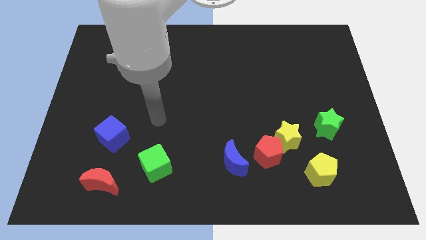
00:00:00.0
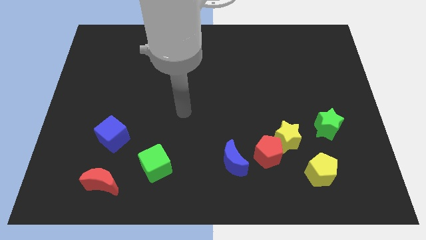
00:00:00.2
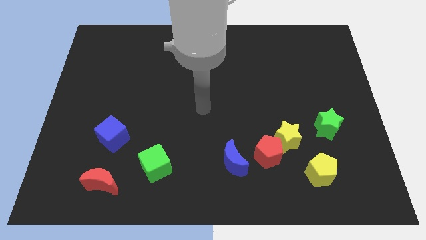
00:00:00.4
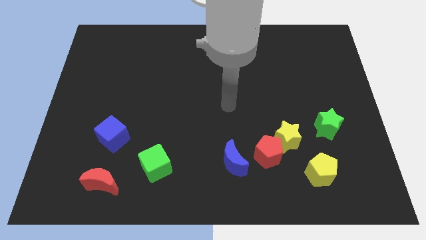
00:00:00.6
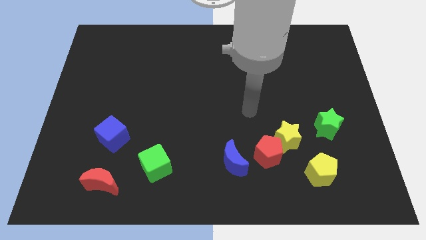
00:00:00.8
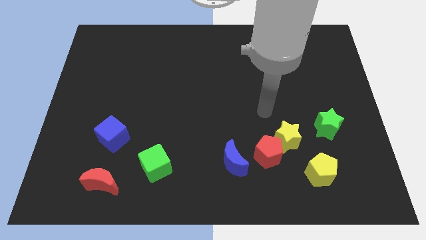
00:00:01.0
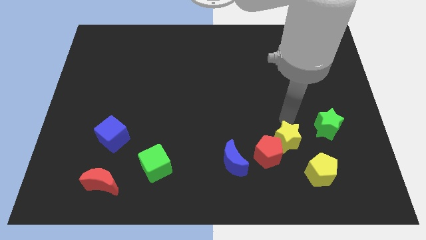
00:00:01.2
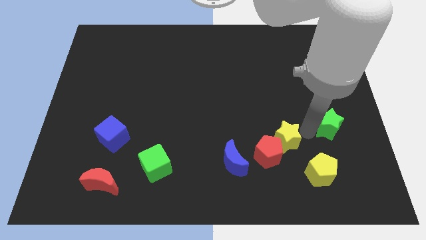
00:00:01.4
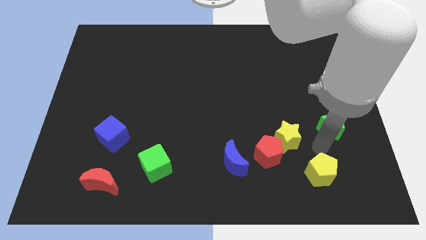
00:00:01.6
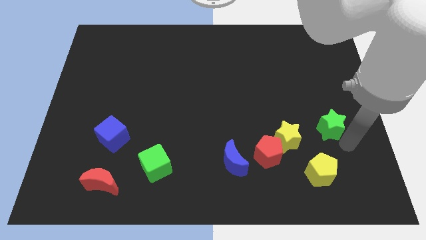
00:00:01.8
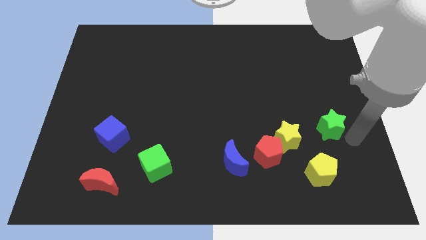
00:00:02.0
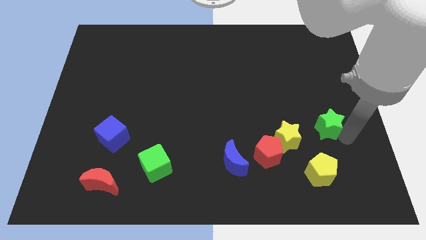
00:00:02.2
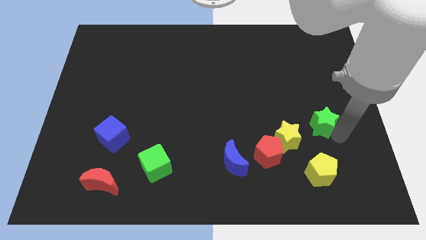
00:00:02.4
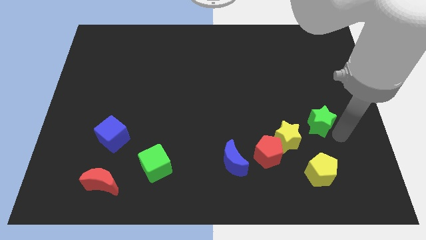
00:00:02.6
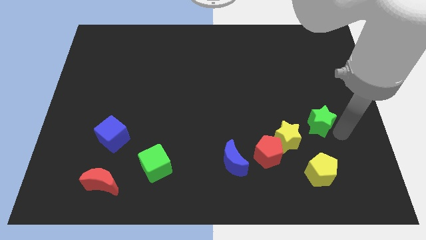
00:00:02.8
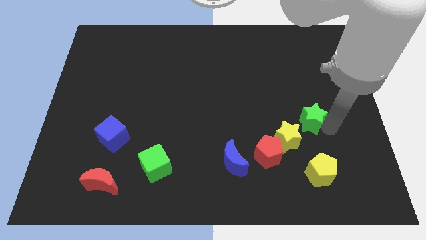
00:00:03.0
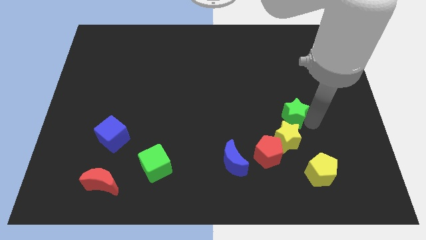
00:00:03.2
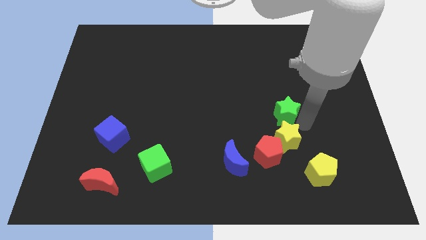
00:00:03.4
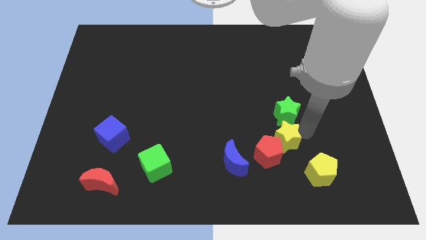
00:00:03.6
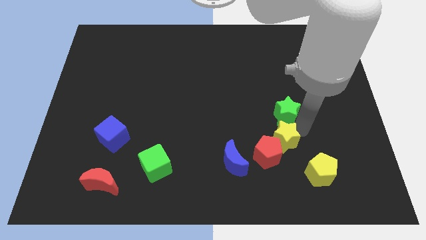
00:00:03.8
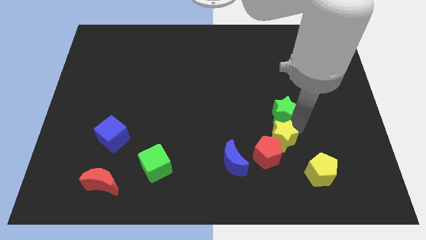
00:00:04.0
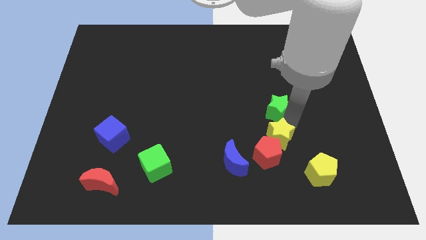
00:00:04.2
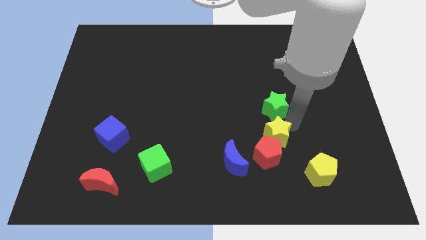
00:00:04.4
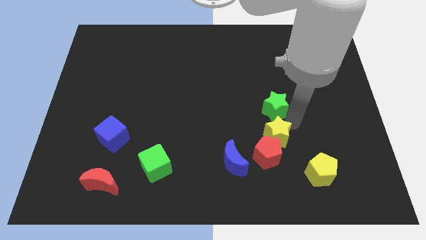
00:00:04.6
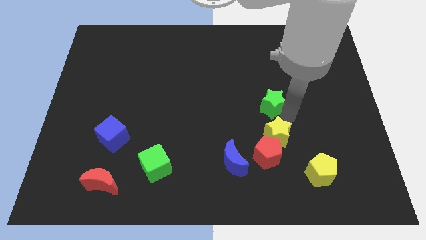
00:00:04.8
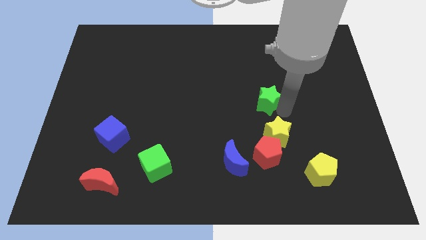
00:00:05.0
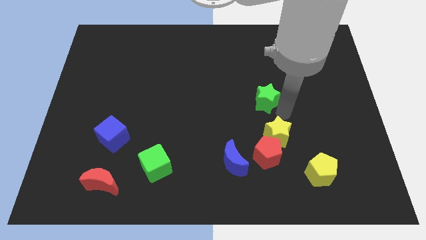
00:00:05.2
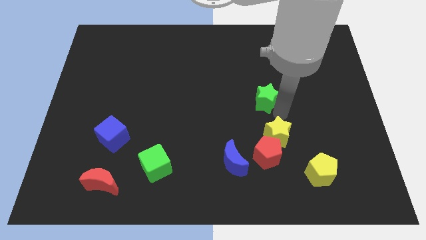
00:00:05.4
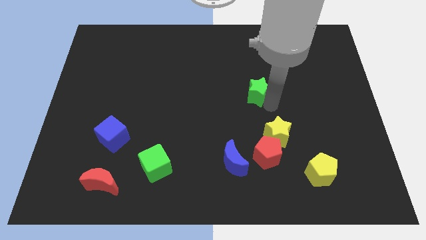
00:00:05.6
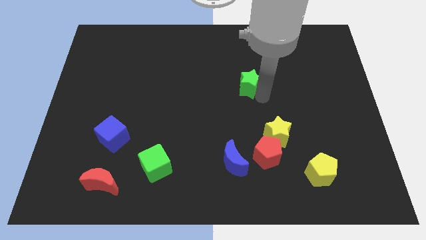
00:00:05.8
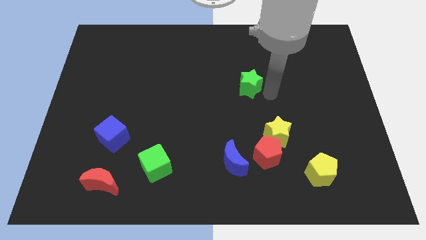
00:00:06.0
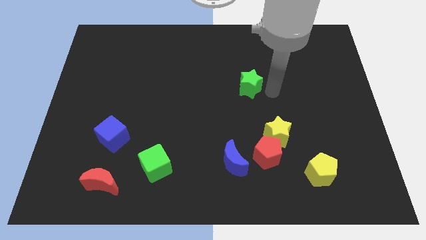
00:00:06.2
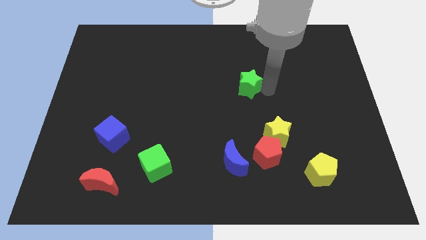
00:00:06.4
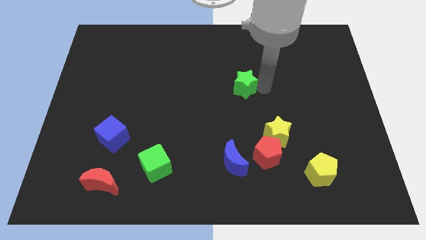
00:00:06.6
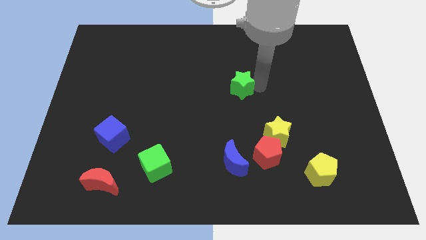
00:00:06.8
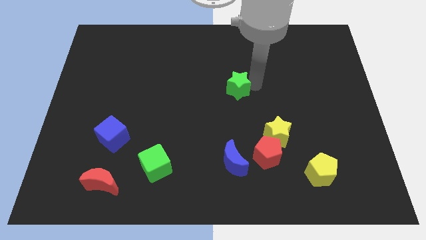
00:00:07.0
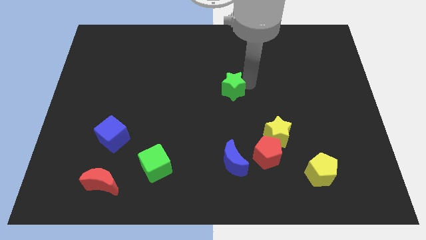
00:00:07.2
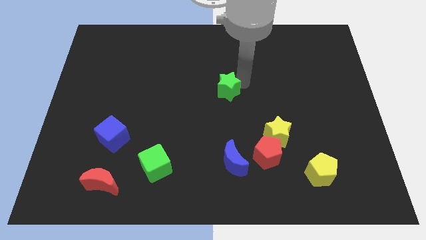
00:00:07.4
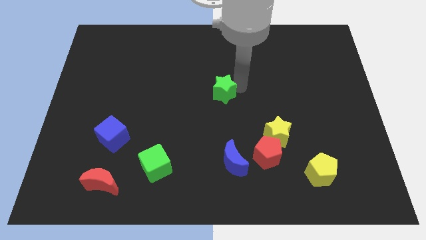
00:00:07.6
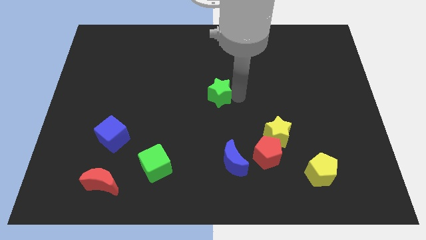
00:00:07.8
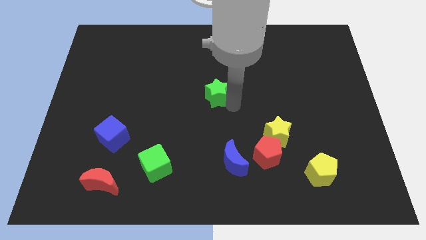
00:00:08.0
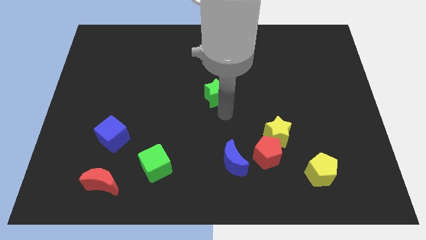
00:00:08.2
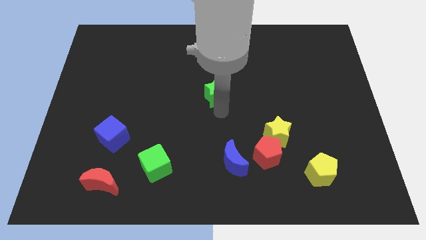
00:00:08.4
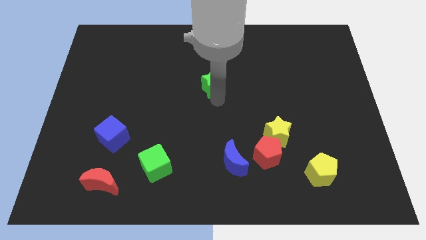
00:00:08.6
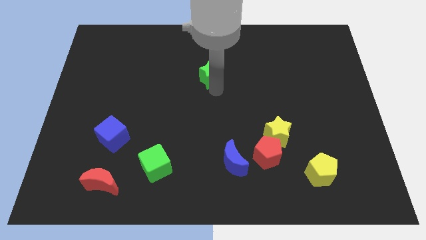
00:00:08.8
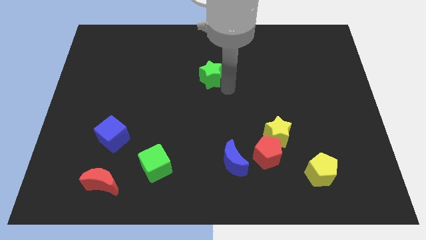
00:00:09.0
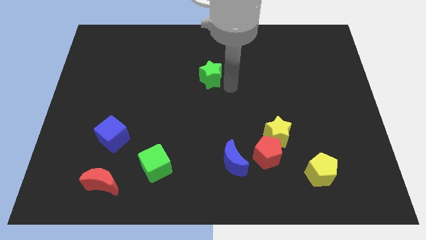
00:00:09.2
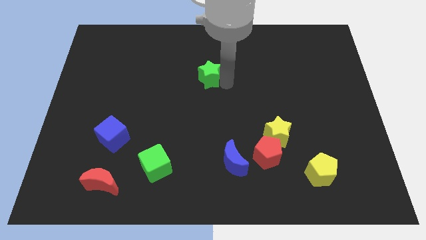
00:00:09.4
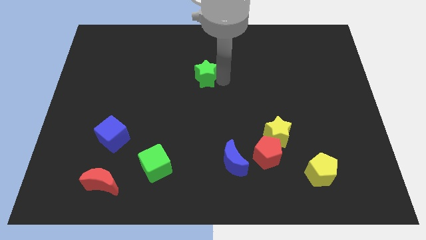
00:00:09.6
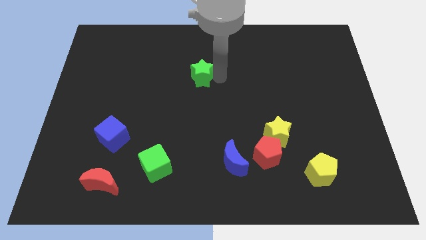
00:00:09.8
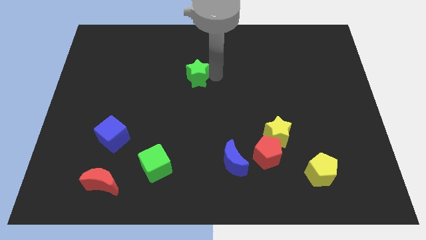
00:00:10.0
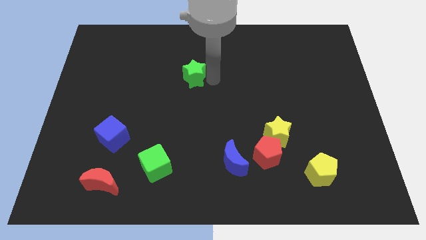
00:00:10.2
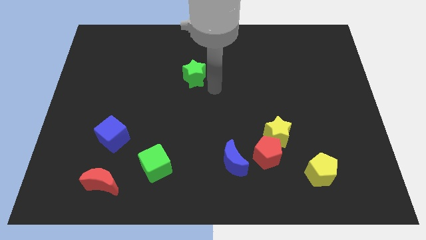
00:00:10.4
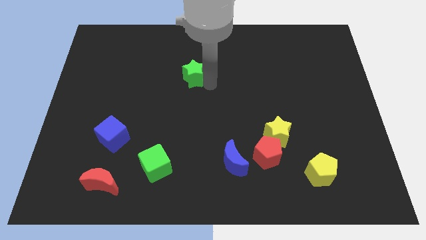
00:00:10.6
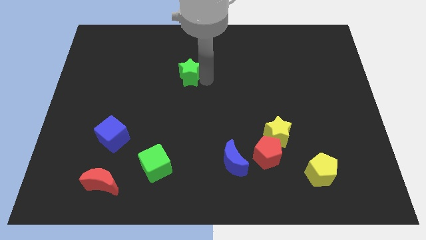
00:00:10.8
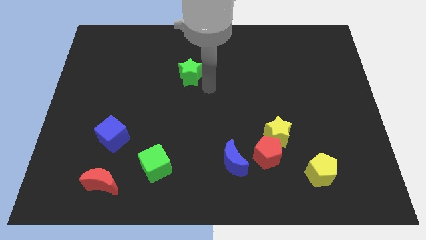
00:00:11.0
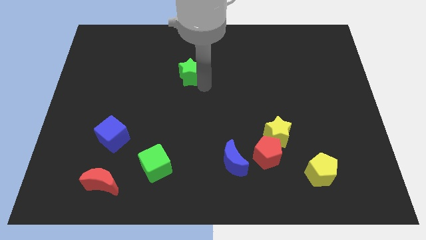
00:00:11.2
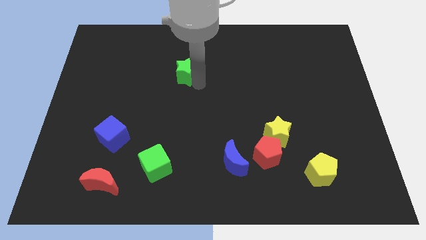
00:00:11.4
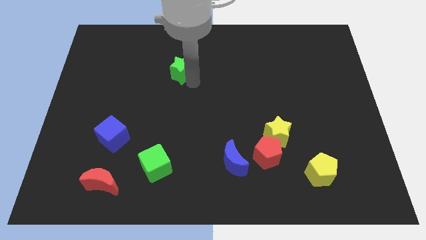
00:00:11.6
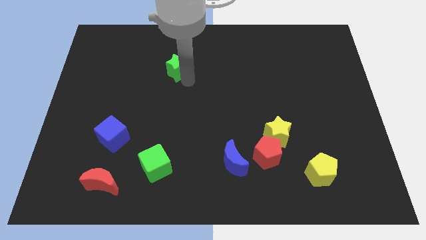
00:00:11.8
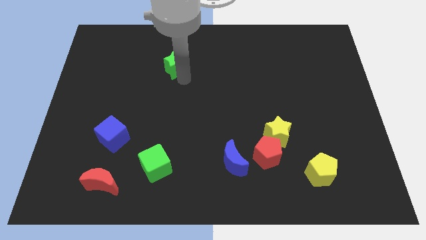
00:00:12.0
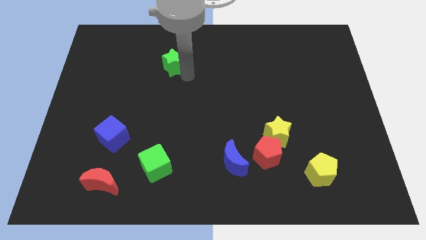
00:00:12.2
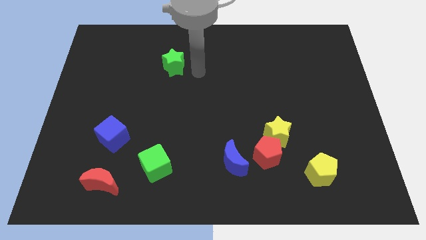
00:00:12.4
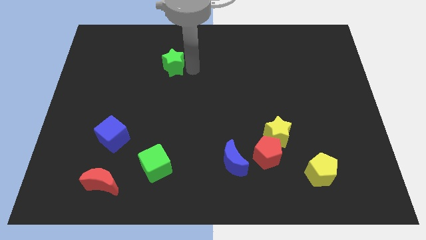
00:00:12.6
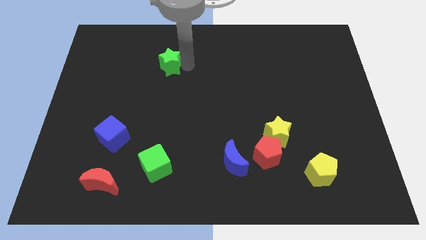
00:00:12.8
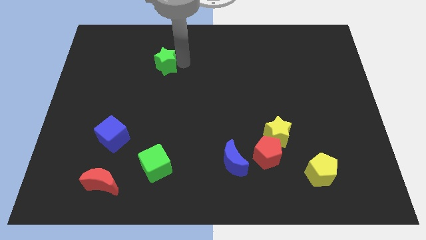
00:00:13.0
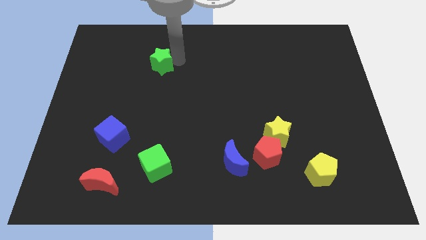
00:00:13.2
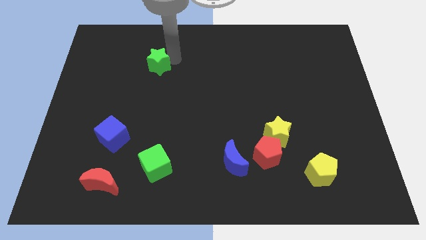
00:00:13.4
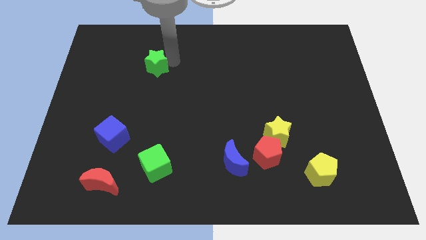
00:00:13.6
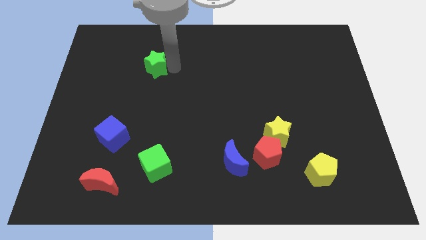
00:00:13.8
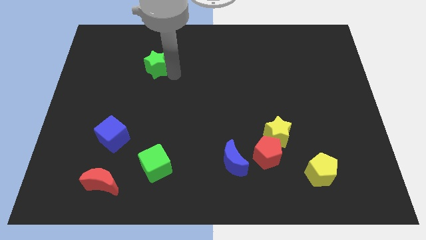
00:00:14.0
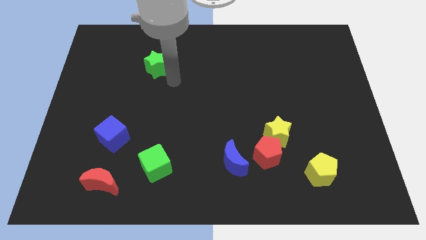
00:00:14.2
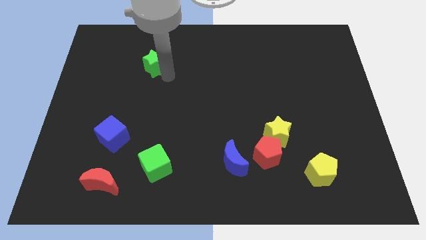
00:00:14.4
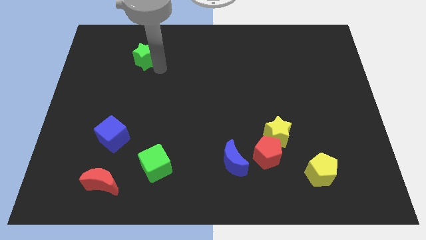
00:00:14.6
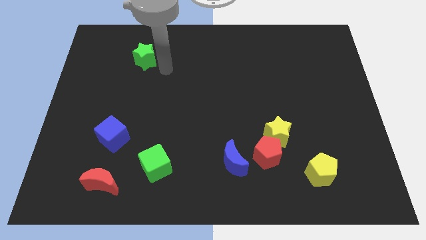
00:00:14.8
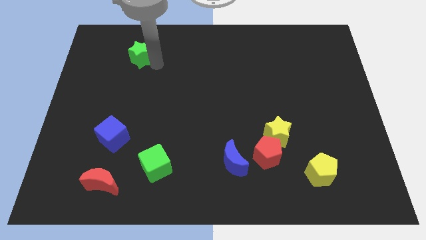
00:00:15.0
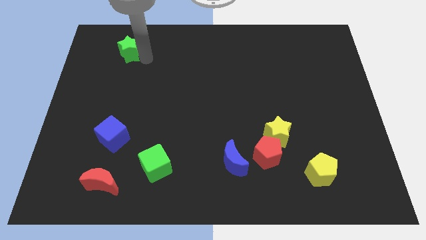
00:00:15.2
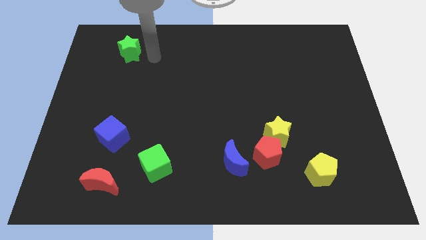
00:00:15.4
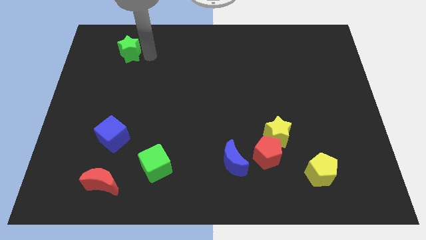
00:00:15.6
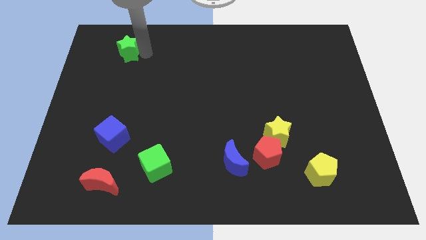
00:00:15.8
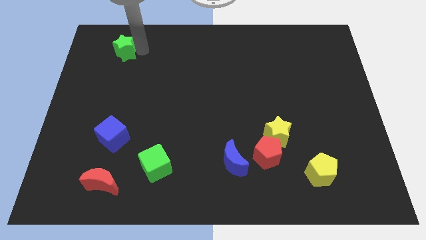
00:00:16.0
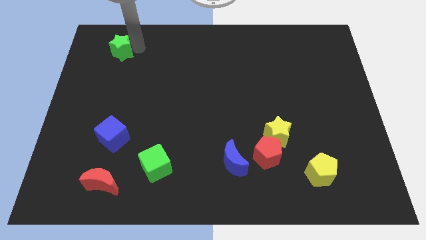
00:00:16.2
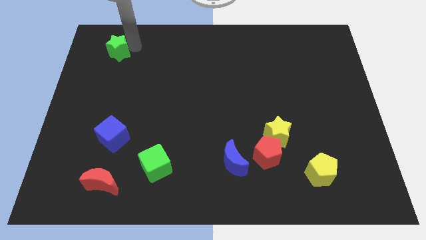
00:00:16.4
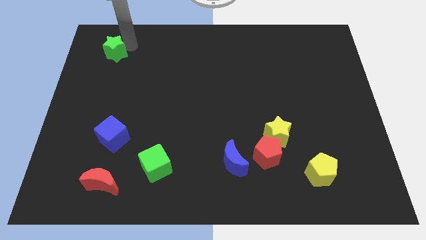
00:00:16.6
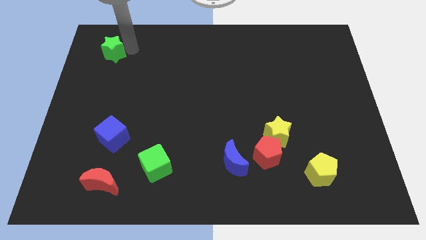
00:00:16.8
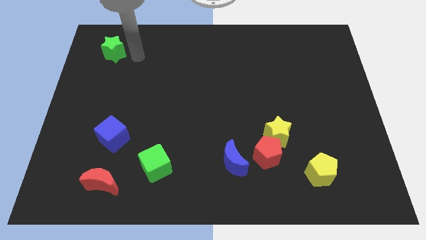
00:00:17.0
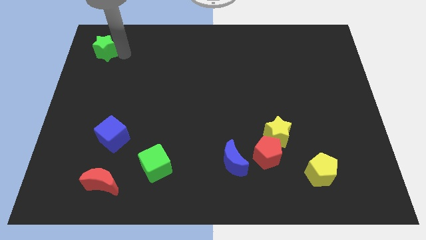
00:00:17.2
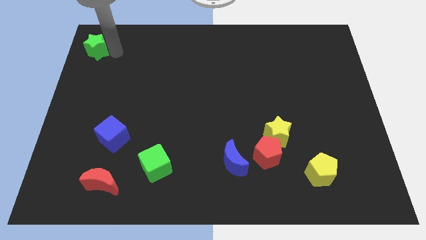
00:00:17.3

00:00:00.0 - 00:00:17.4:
move the green star to the top left of the board
